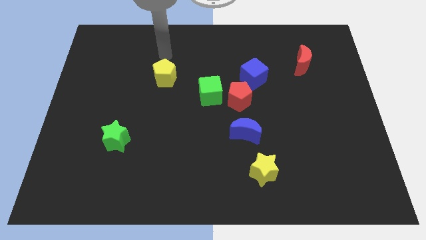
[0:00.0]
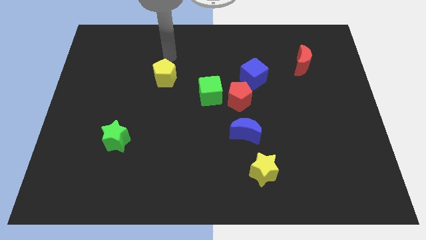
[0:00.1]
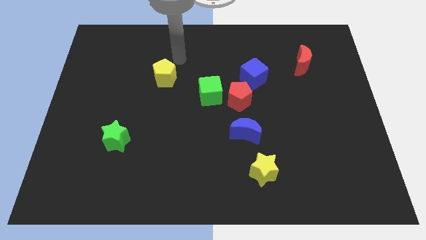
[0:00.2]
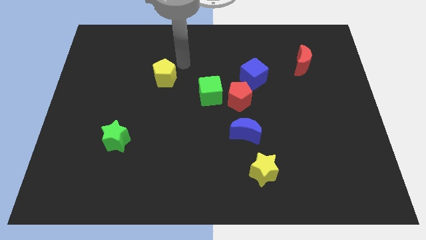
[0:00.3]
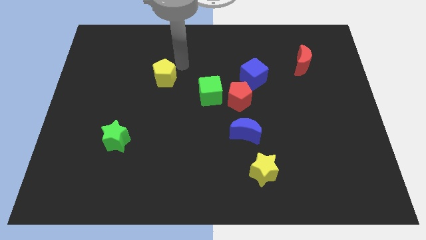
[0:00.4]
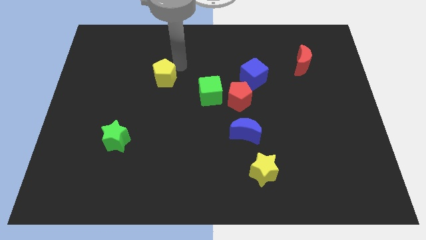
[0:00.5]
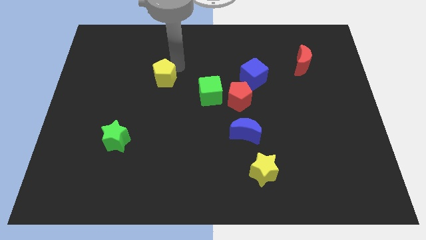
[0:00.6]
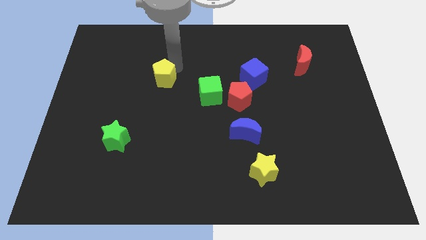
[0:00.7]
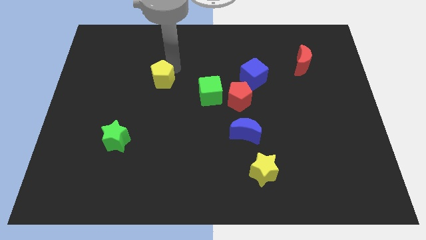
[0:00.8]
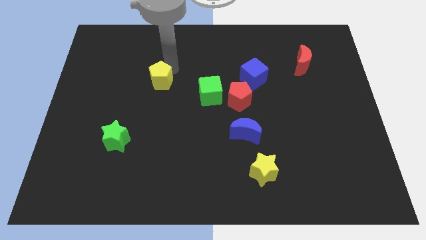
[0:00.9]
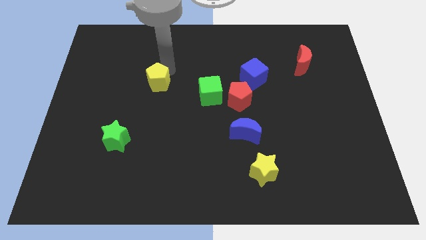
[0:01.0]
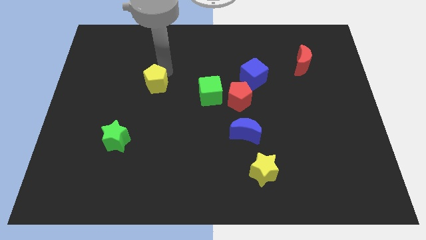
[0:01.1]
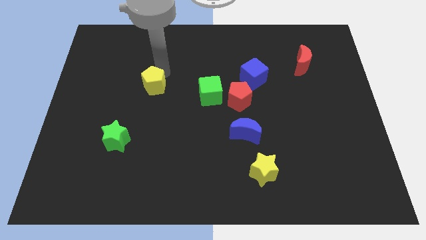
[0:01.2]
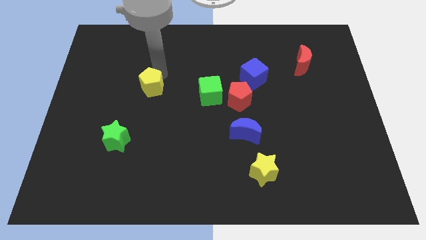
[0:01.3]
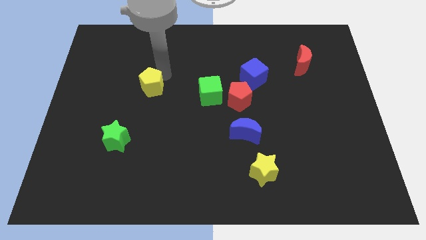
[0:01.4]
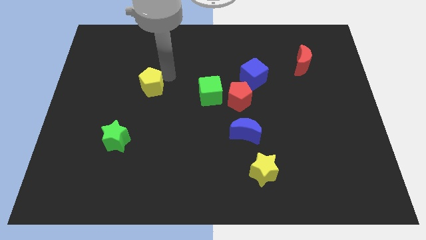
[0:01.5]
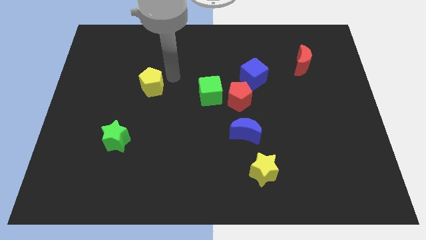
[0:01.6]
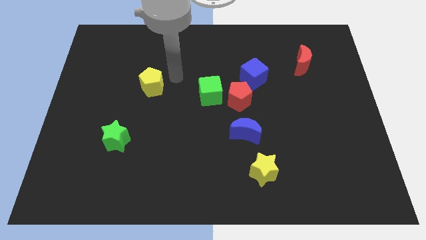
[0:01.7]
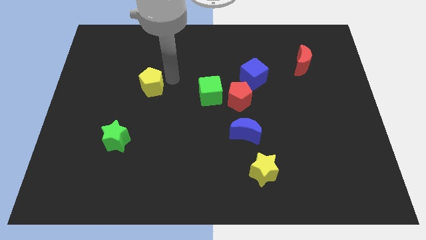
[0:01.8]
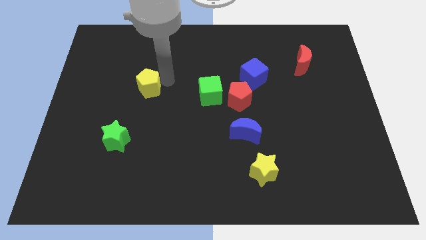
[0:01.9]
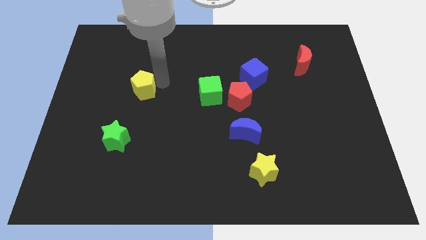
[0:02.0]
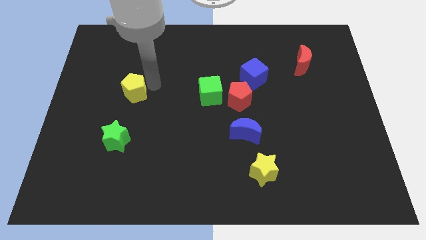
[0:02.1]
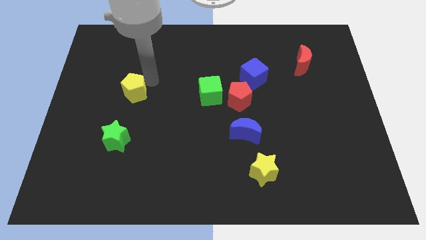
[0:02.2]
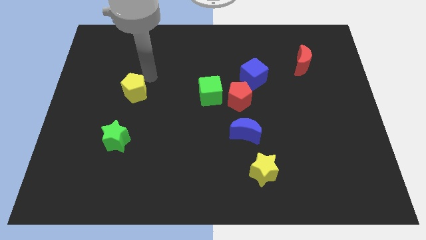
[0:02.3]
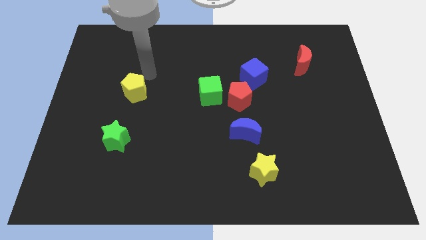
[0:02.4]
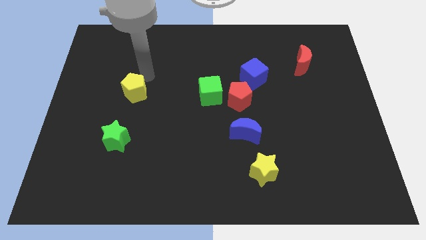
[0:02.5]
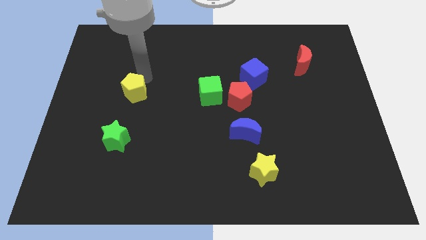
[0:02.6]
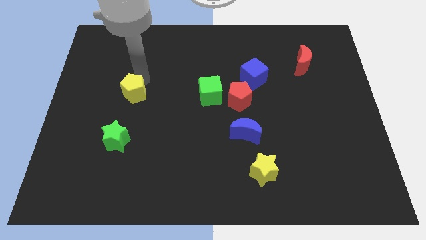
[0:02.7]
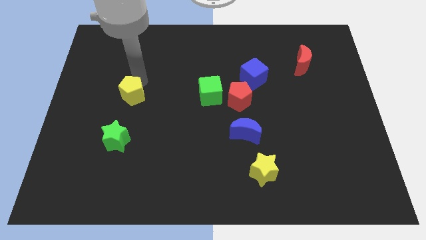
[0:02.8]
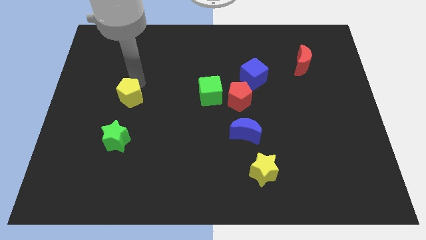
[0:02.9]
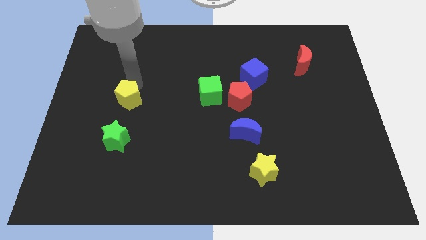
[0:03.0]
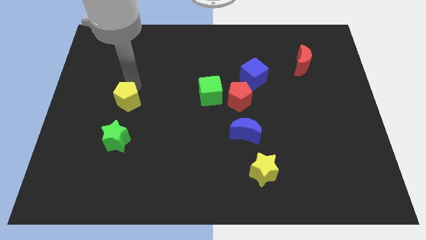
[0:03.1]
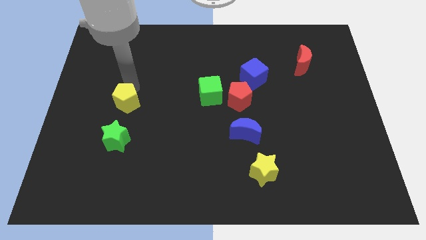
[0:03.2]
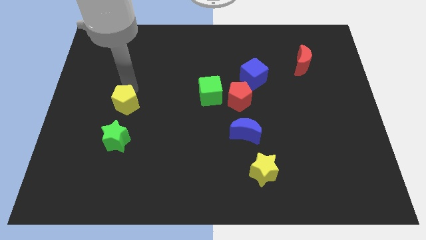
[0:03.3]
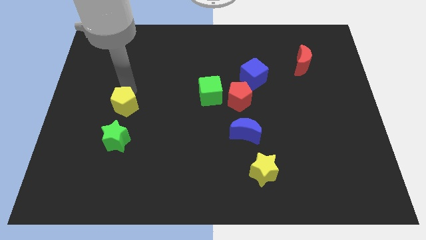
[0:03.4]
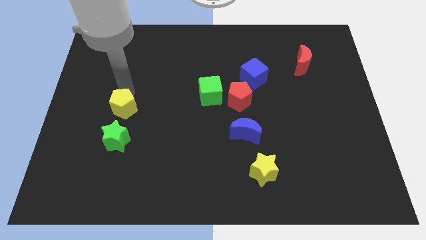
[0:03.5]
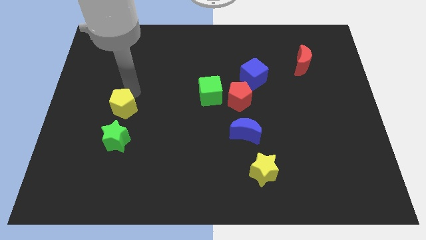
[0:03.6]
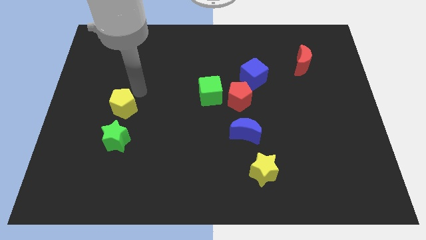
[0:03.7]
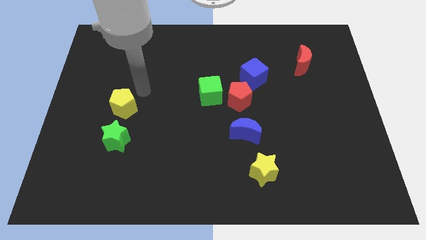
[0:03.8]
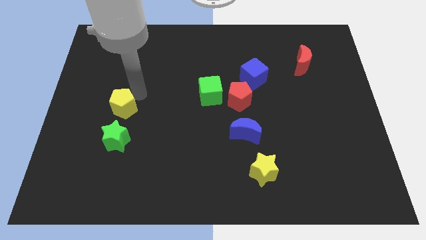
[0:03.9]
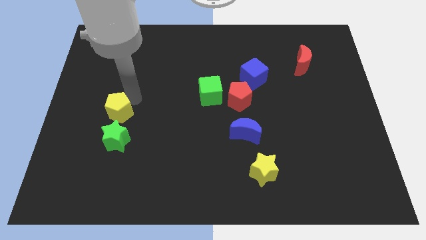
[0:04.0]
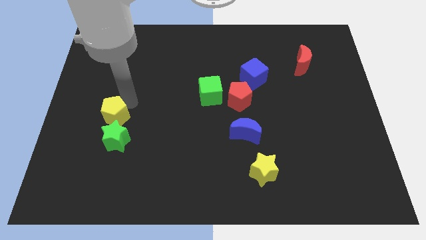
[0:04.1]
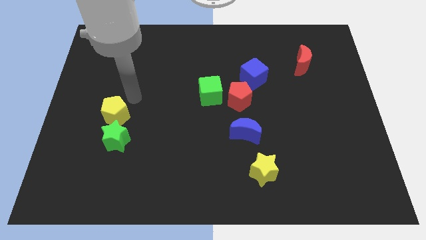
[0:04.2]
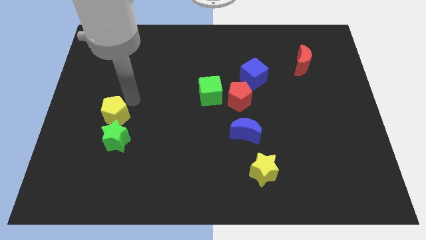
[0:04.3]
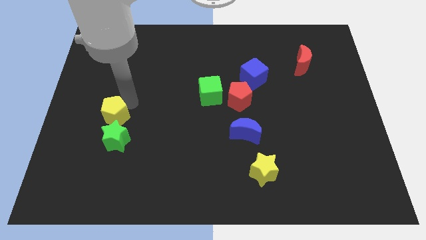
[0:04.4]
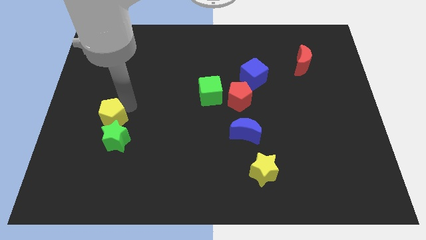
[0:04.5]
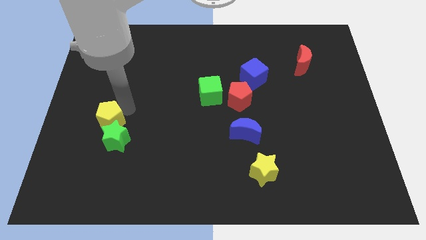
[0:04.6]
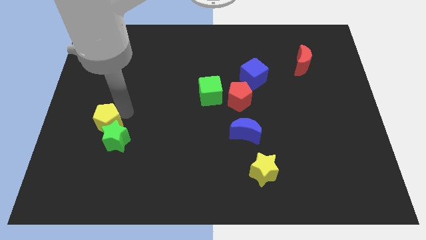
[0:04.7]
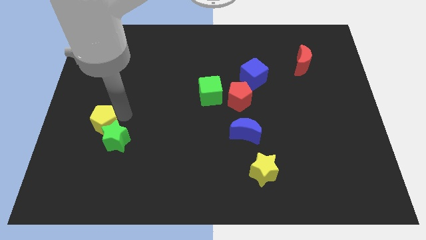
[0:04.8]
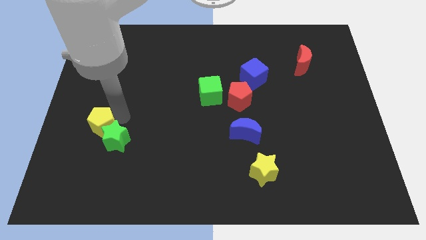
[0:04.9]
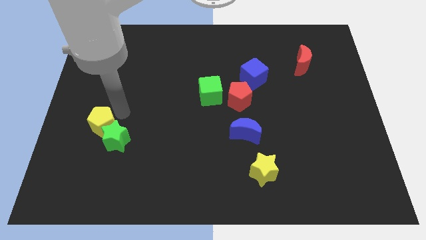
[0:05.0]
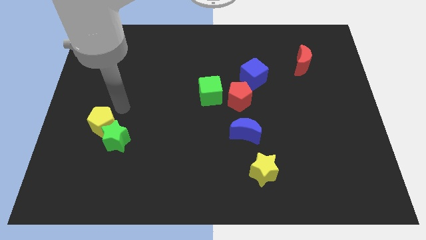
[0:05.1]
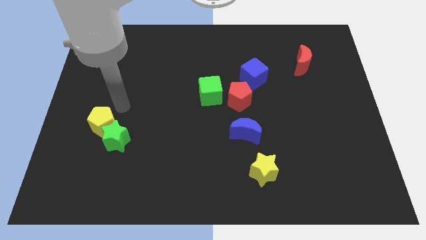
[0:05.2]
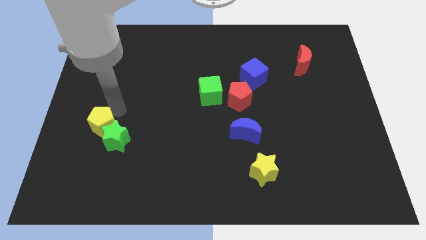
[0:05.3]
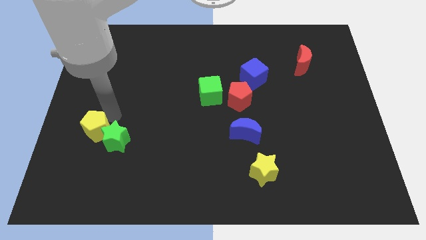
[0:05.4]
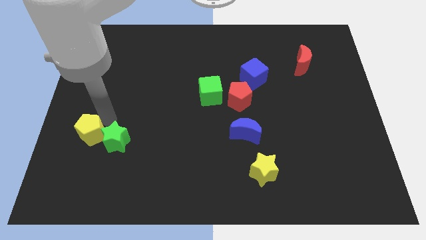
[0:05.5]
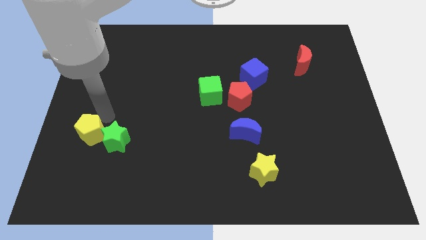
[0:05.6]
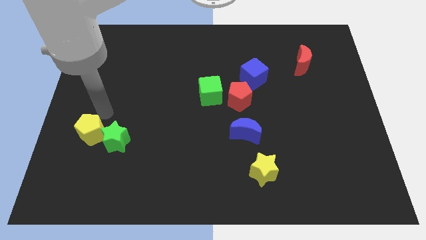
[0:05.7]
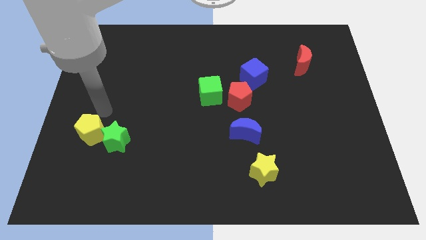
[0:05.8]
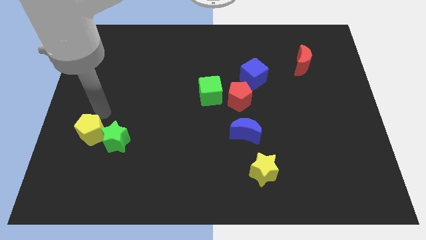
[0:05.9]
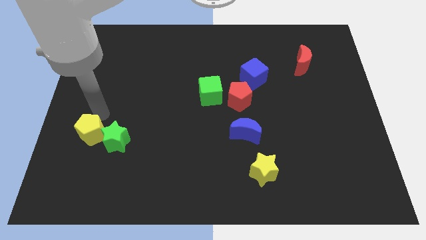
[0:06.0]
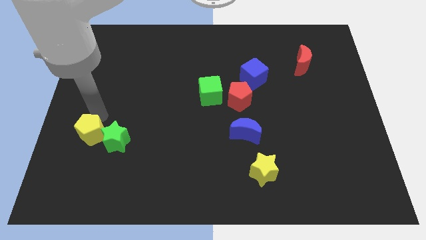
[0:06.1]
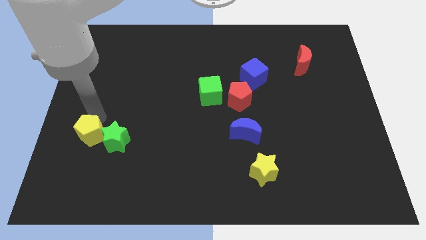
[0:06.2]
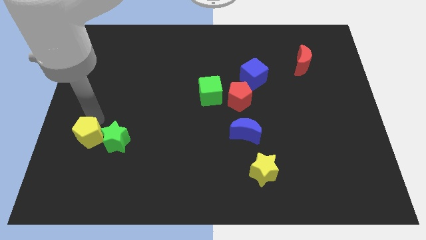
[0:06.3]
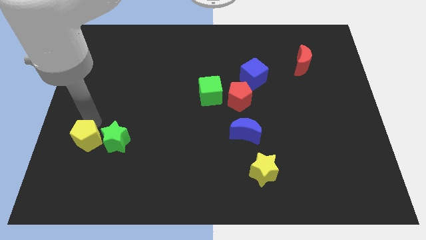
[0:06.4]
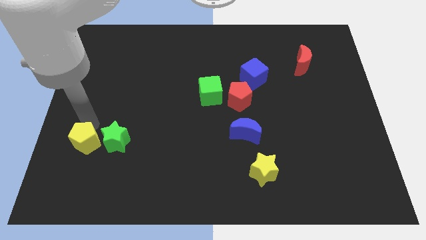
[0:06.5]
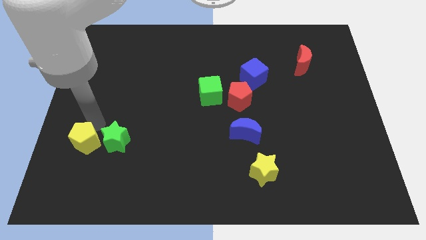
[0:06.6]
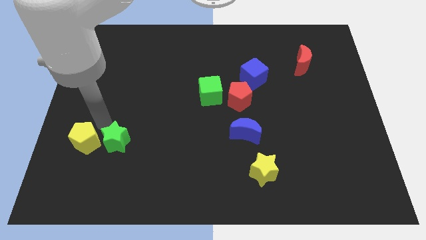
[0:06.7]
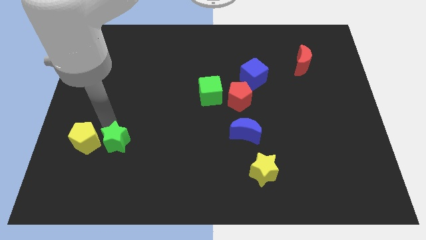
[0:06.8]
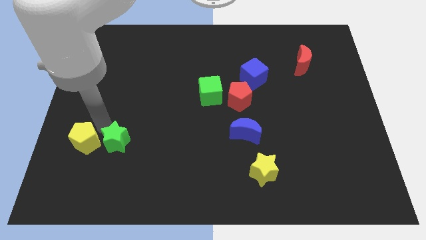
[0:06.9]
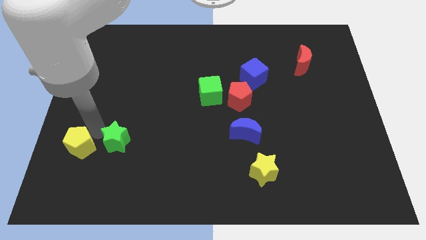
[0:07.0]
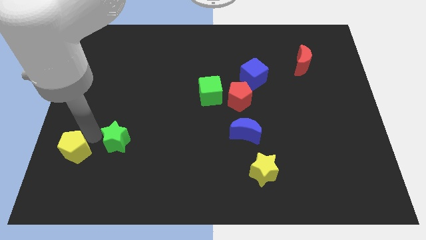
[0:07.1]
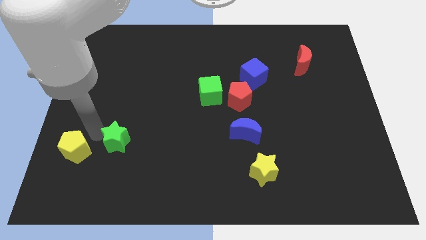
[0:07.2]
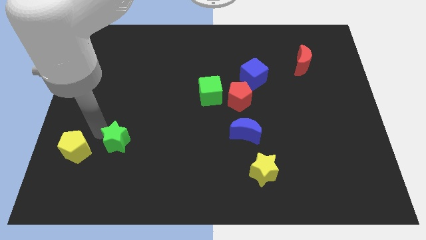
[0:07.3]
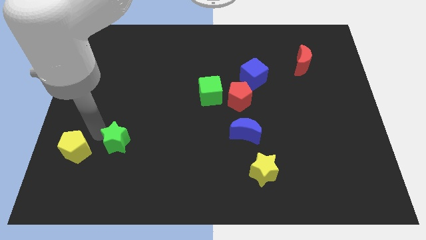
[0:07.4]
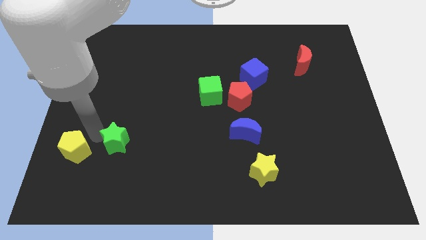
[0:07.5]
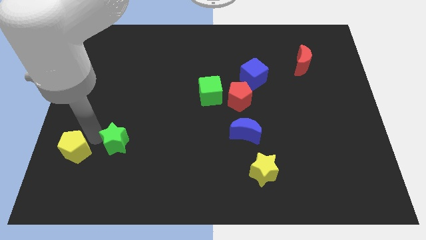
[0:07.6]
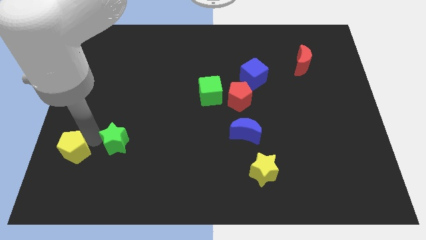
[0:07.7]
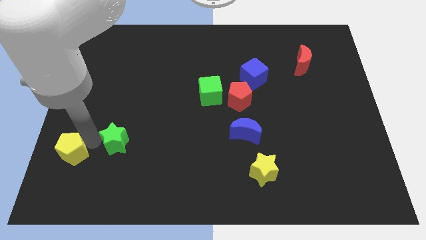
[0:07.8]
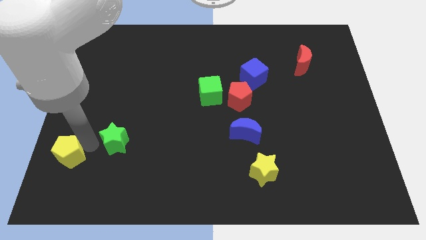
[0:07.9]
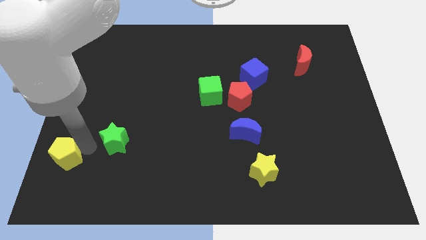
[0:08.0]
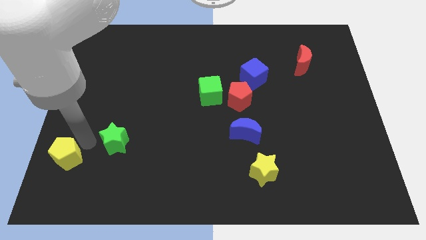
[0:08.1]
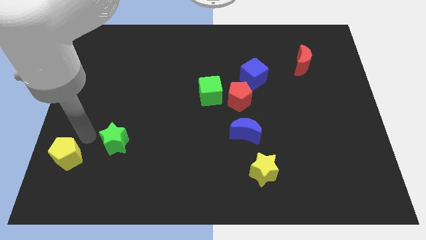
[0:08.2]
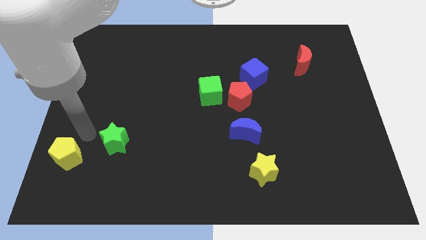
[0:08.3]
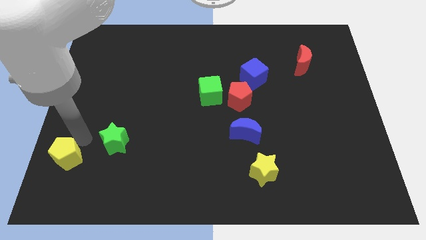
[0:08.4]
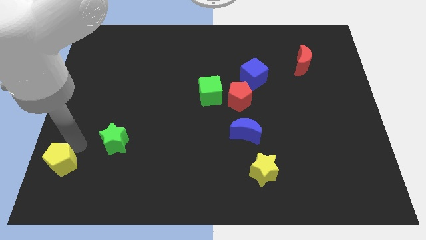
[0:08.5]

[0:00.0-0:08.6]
put the yellow pentagon to the bottom left corner
